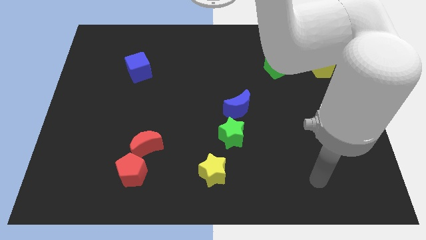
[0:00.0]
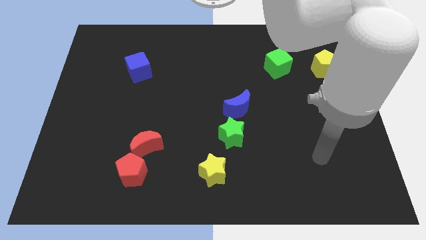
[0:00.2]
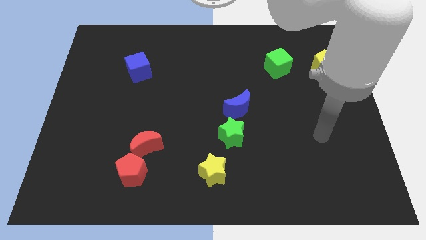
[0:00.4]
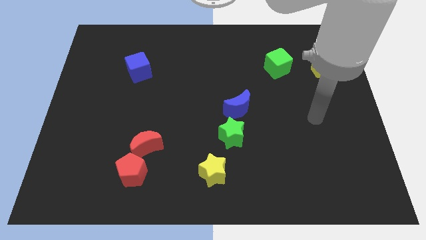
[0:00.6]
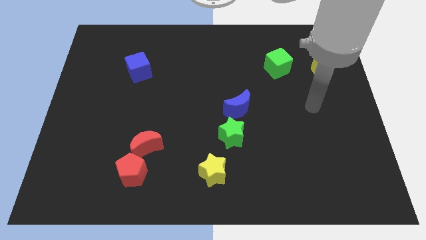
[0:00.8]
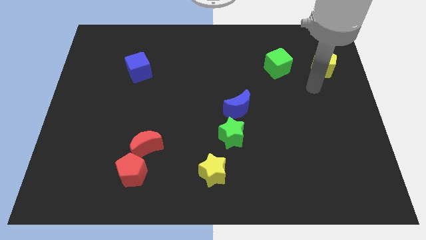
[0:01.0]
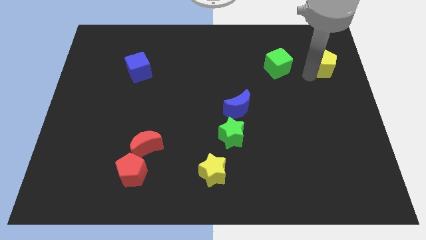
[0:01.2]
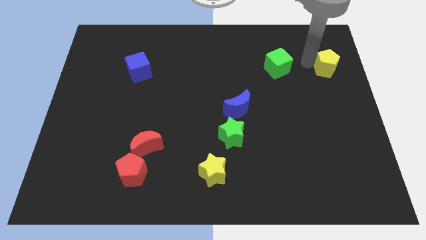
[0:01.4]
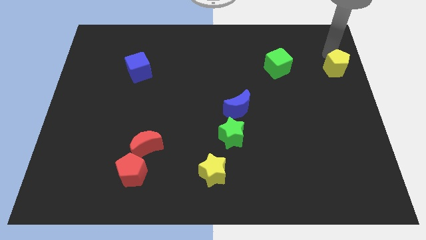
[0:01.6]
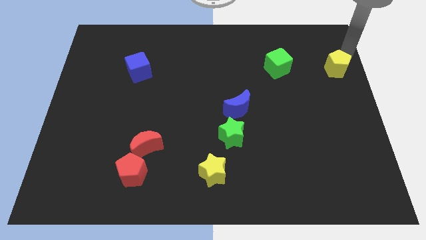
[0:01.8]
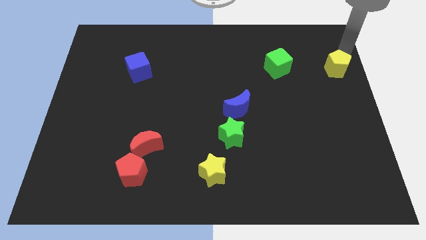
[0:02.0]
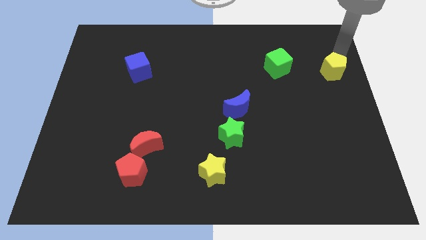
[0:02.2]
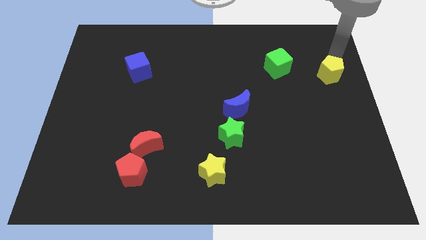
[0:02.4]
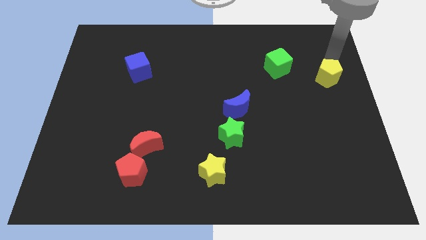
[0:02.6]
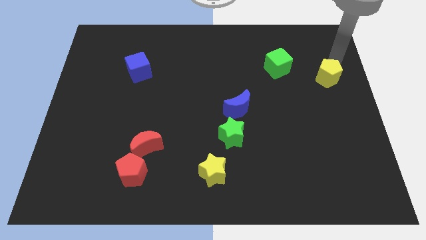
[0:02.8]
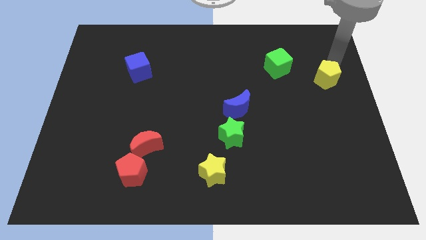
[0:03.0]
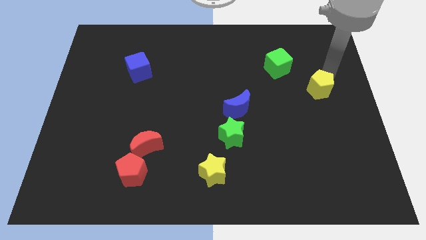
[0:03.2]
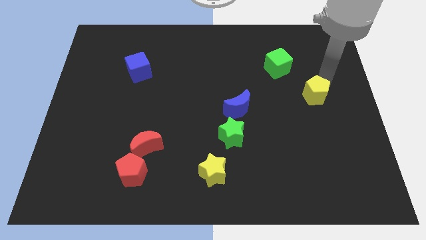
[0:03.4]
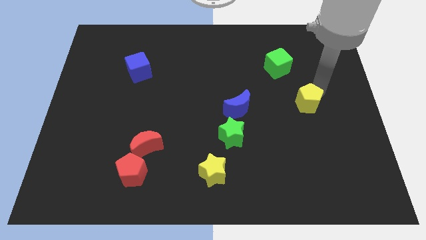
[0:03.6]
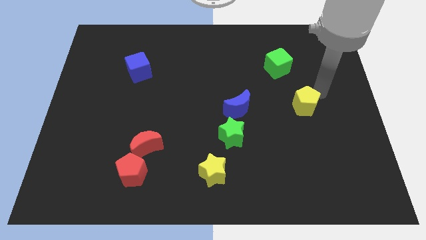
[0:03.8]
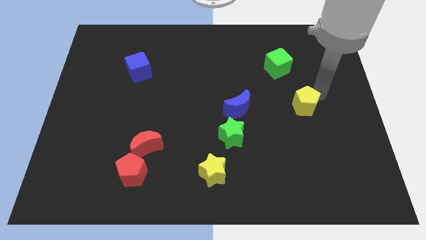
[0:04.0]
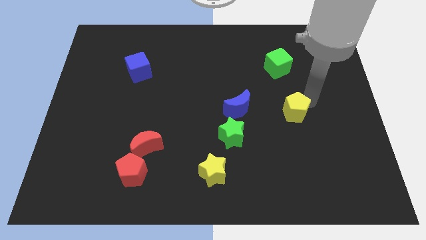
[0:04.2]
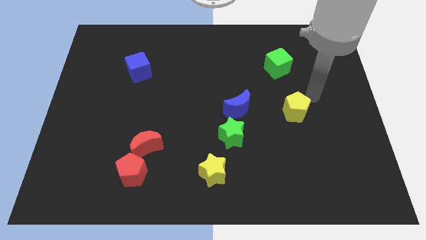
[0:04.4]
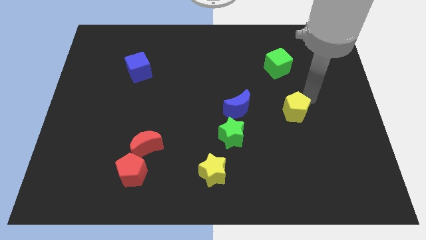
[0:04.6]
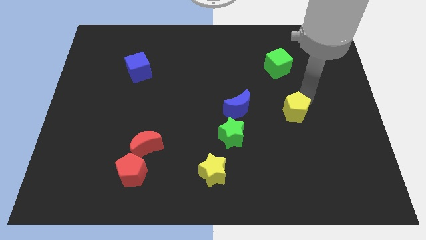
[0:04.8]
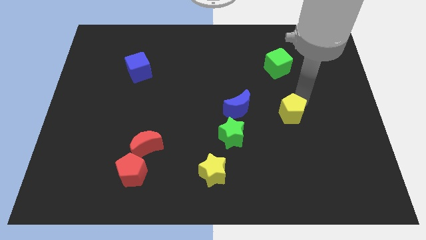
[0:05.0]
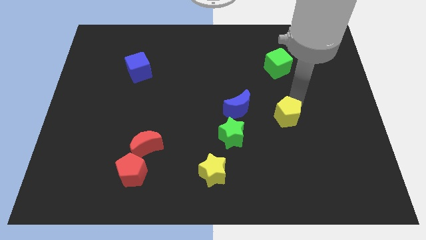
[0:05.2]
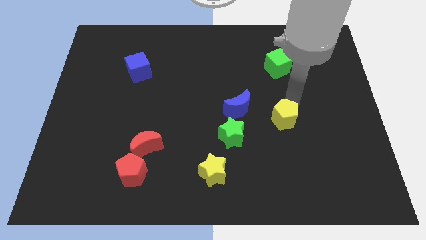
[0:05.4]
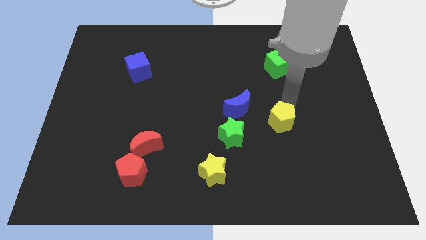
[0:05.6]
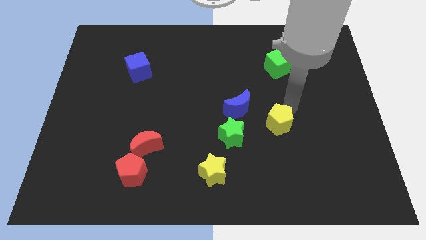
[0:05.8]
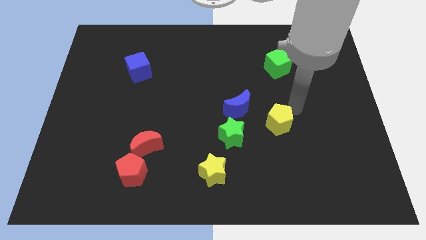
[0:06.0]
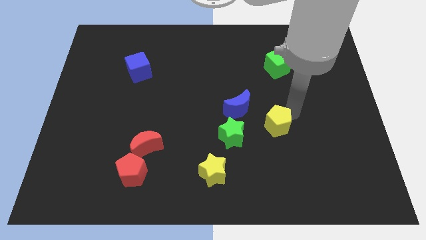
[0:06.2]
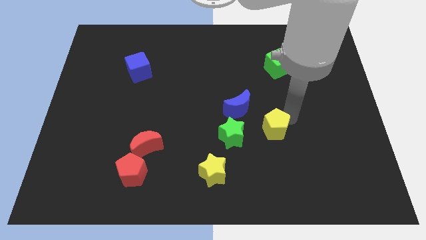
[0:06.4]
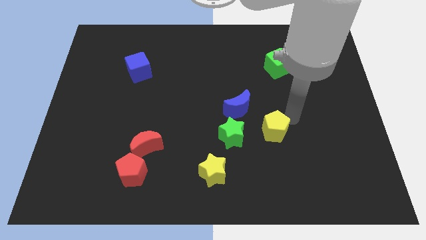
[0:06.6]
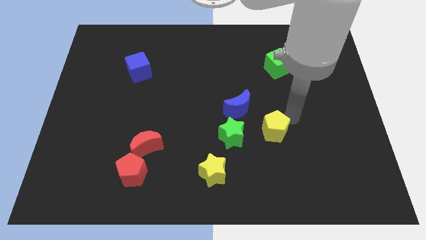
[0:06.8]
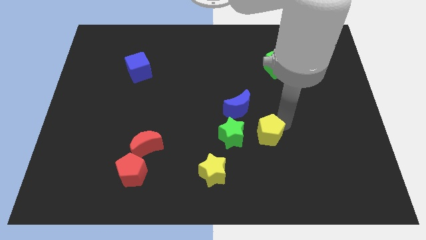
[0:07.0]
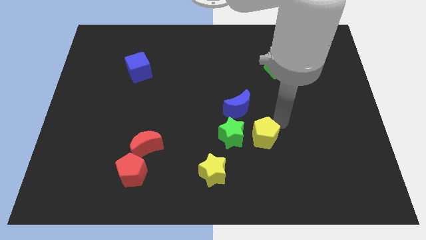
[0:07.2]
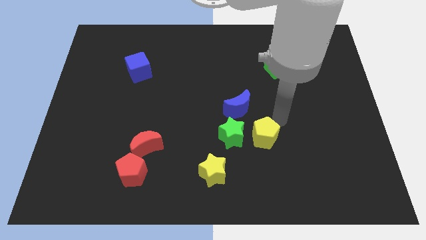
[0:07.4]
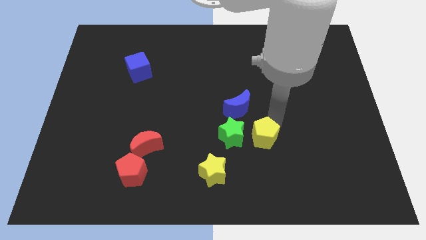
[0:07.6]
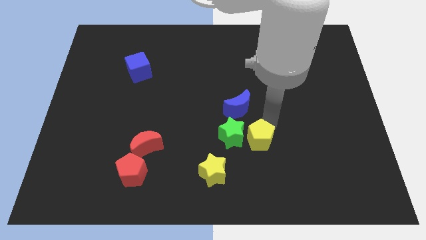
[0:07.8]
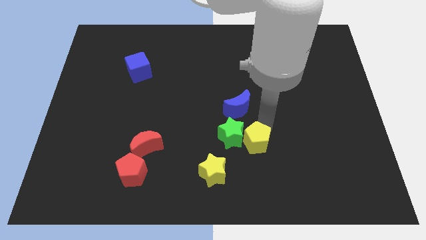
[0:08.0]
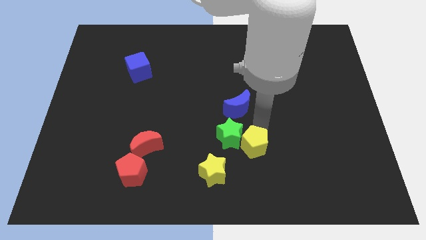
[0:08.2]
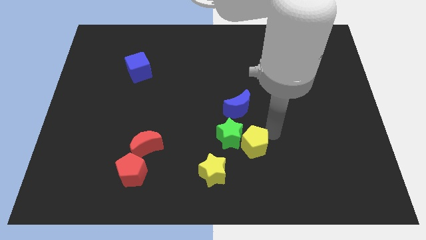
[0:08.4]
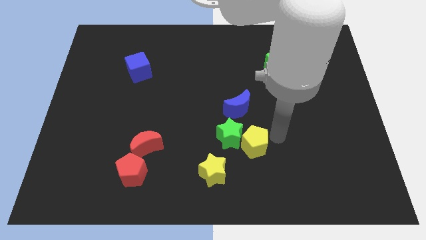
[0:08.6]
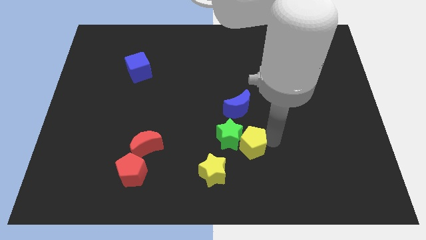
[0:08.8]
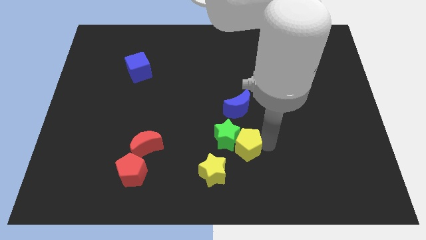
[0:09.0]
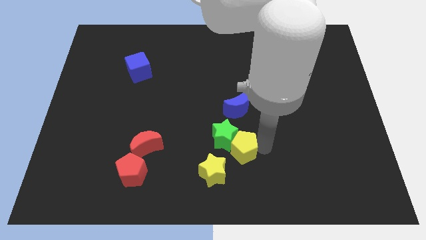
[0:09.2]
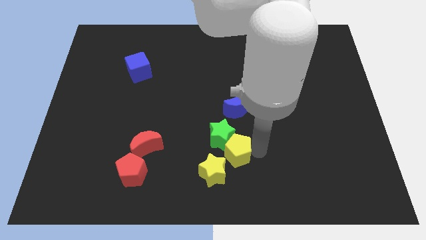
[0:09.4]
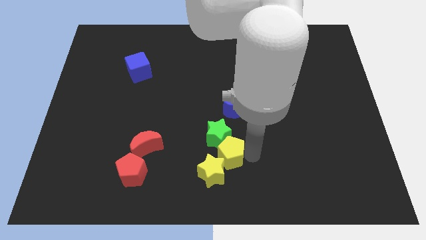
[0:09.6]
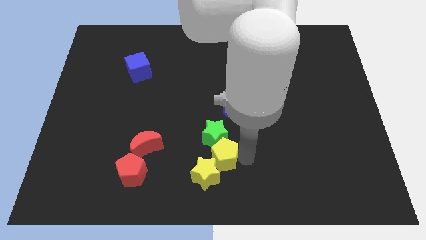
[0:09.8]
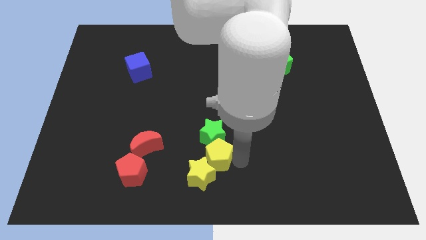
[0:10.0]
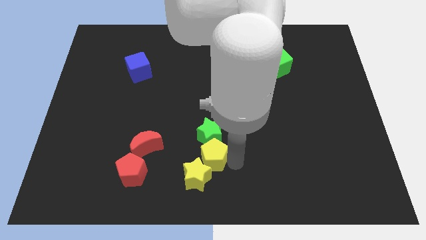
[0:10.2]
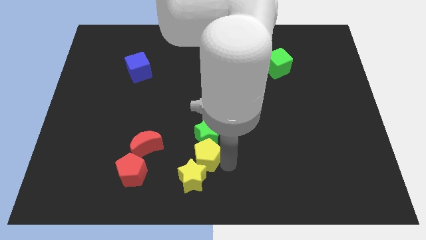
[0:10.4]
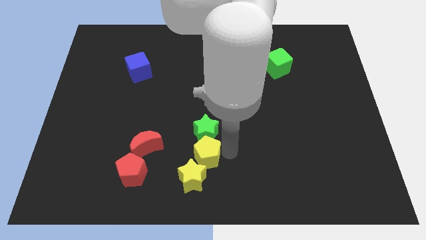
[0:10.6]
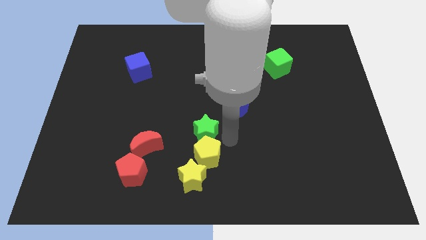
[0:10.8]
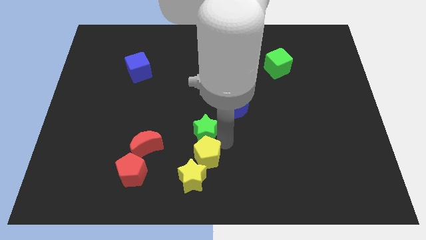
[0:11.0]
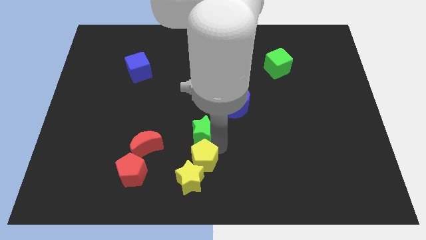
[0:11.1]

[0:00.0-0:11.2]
slide the yellow pentagon to the right side of the red pentagon

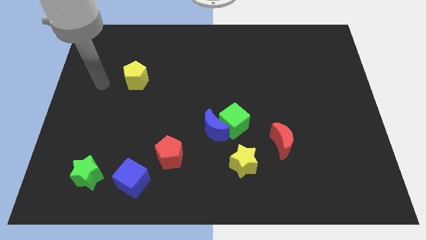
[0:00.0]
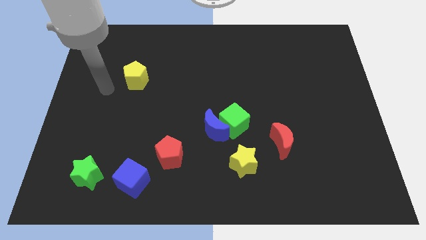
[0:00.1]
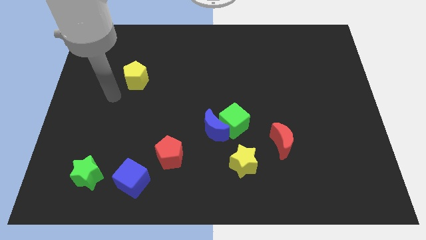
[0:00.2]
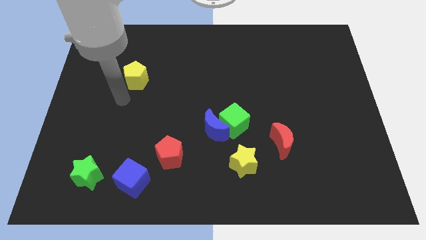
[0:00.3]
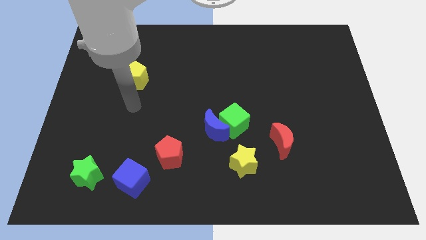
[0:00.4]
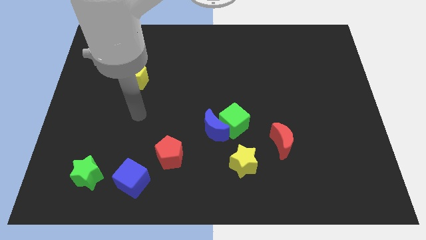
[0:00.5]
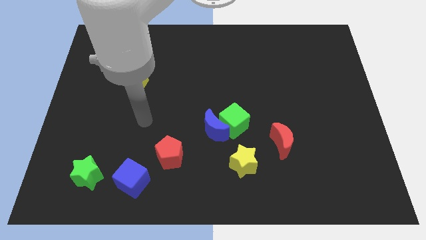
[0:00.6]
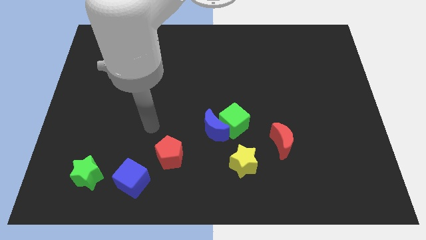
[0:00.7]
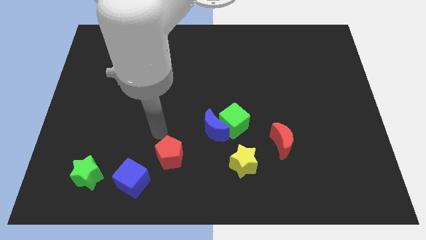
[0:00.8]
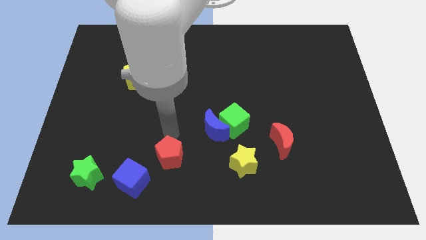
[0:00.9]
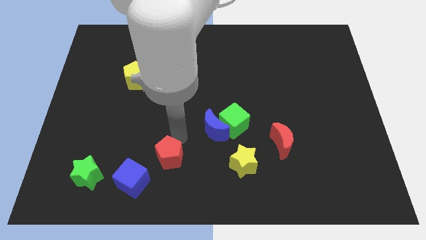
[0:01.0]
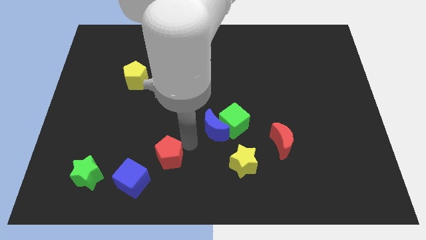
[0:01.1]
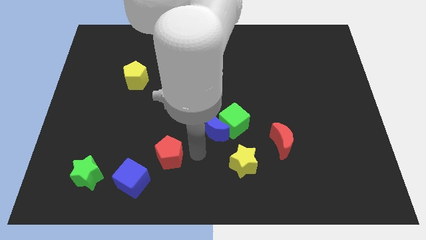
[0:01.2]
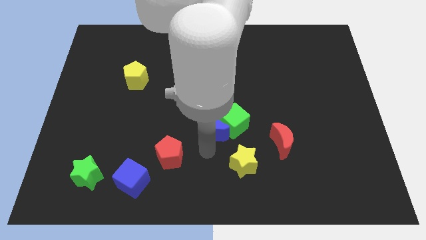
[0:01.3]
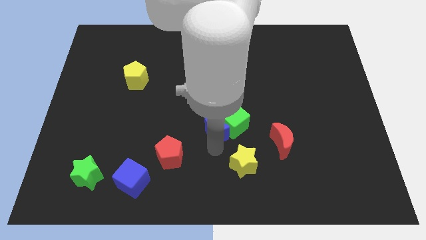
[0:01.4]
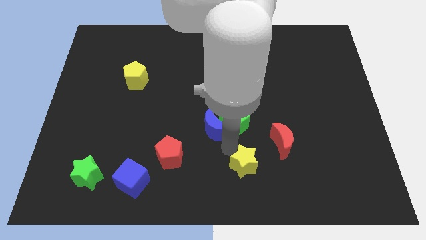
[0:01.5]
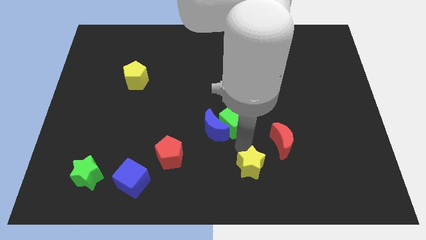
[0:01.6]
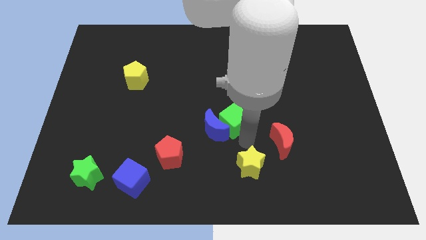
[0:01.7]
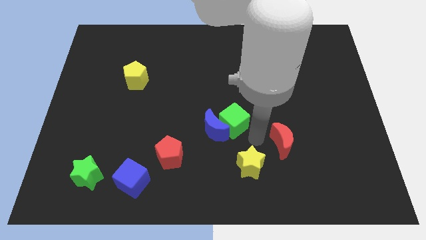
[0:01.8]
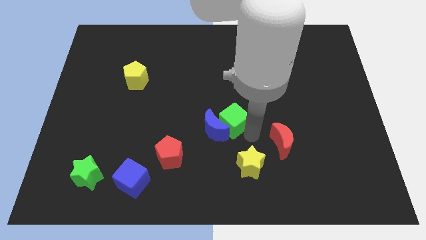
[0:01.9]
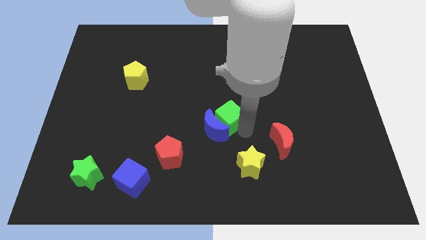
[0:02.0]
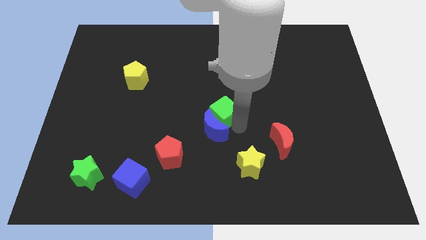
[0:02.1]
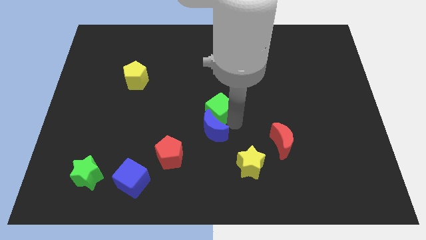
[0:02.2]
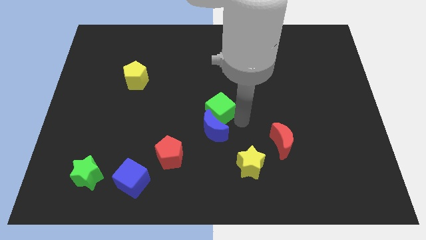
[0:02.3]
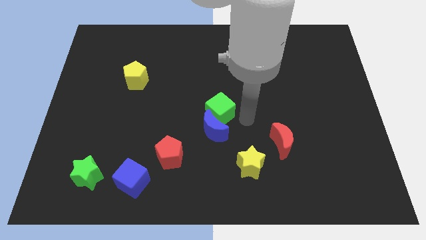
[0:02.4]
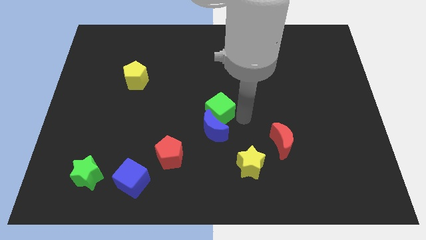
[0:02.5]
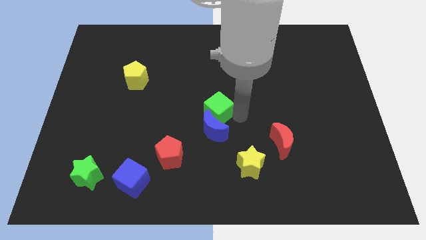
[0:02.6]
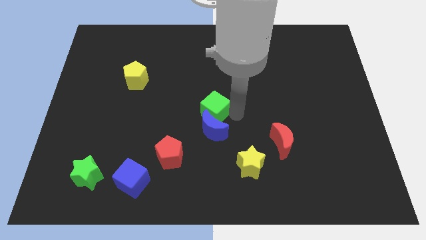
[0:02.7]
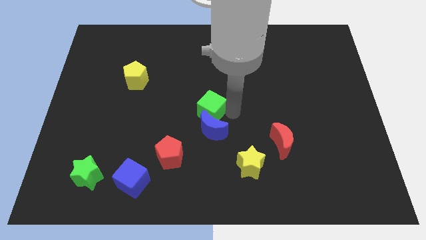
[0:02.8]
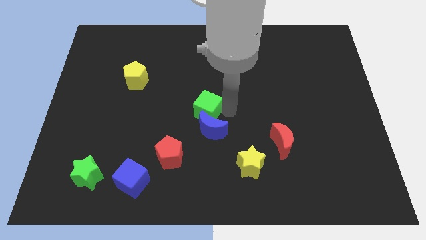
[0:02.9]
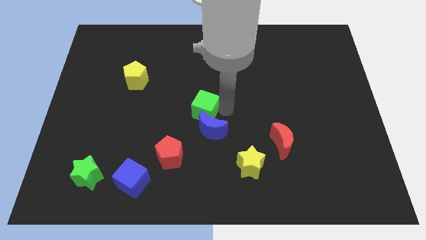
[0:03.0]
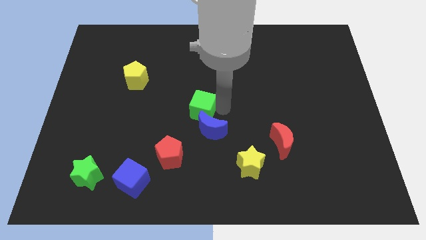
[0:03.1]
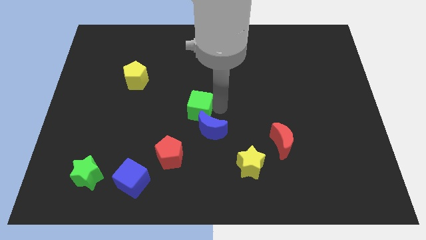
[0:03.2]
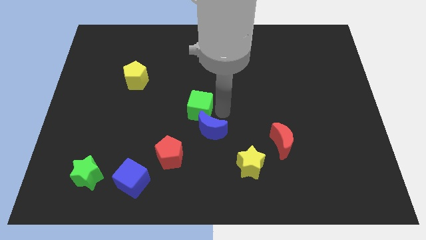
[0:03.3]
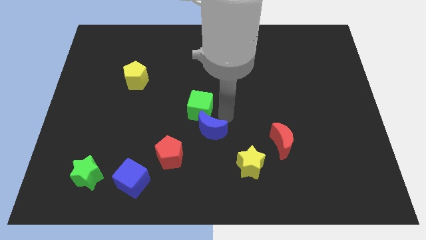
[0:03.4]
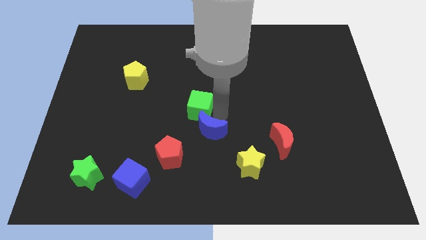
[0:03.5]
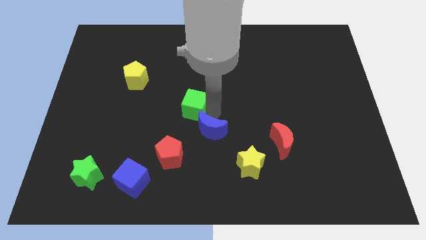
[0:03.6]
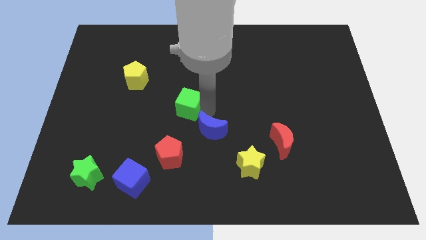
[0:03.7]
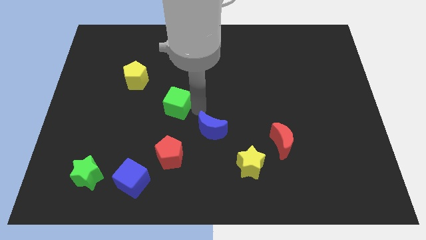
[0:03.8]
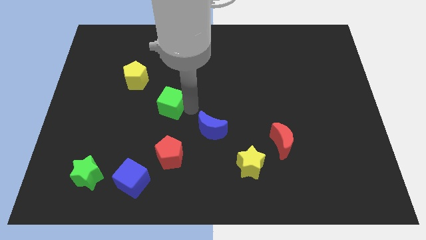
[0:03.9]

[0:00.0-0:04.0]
slide the green cube to the bottom right side of the yellow pentagon
